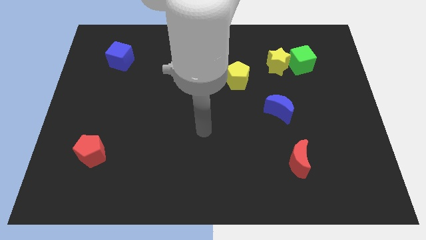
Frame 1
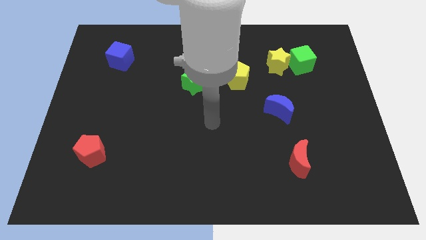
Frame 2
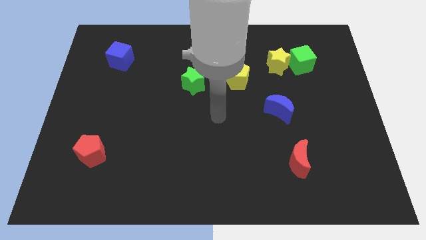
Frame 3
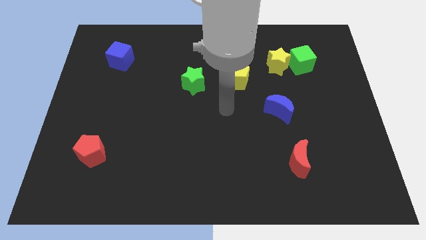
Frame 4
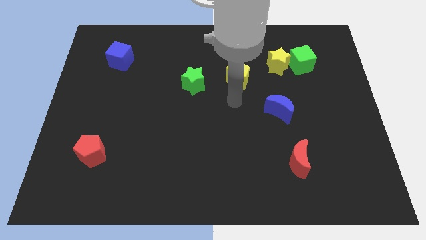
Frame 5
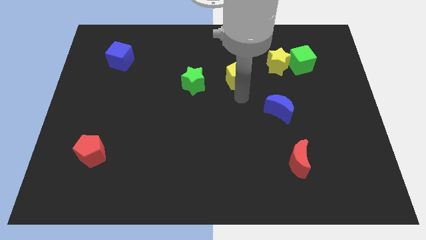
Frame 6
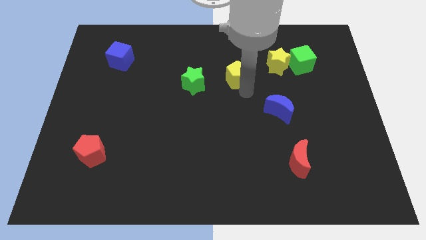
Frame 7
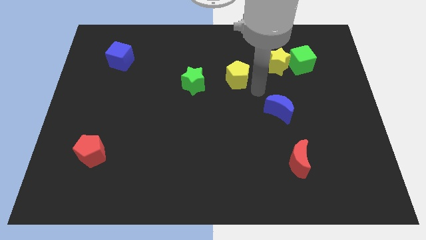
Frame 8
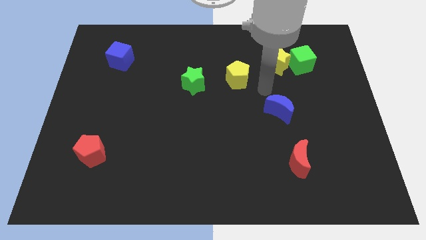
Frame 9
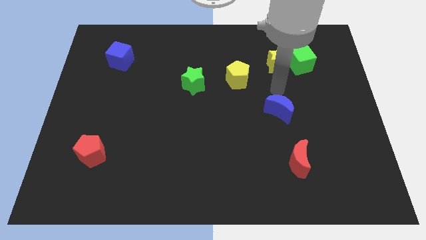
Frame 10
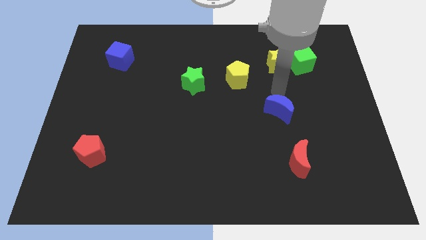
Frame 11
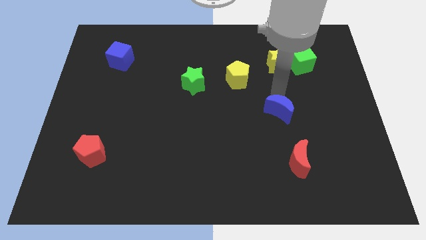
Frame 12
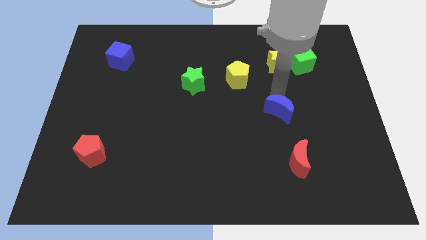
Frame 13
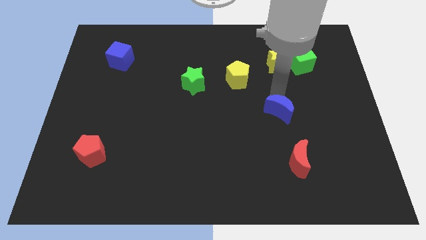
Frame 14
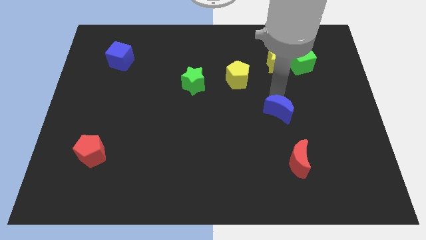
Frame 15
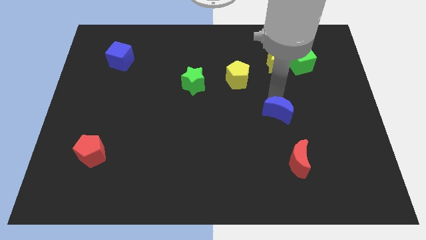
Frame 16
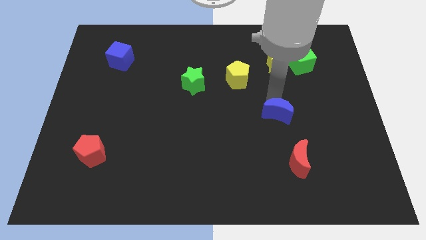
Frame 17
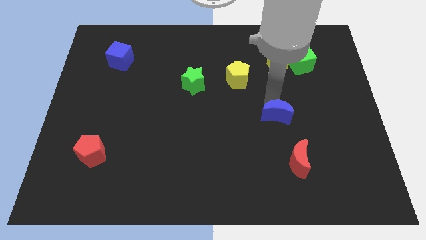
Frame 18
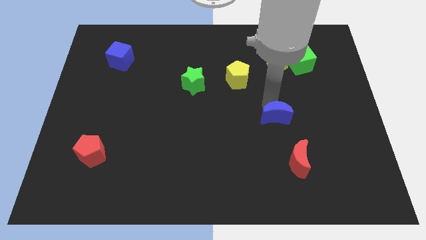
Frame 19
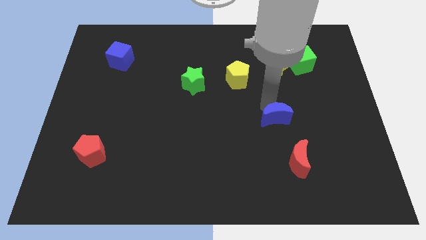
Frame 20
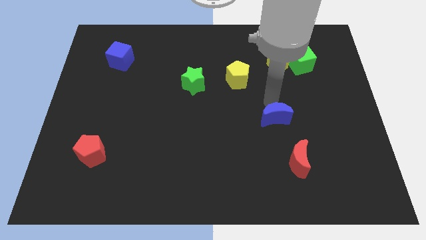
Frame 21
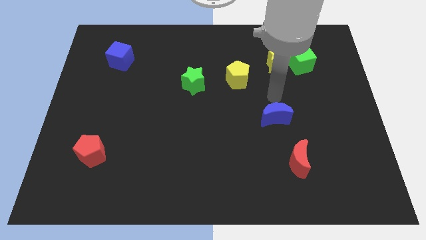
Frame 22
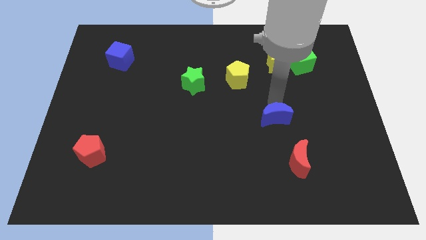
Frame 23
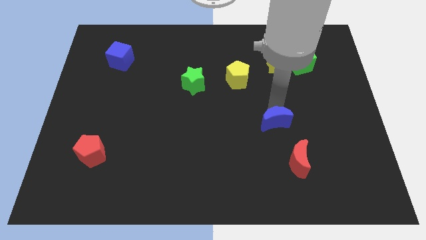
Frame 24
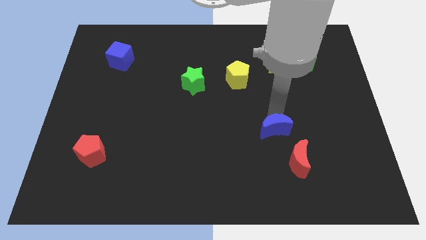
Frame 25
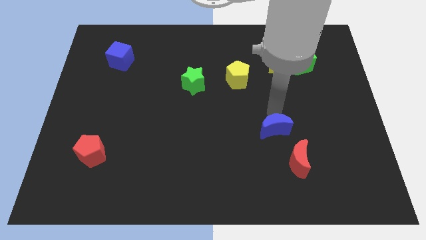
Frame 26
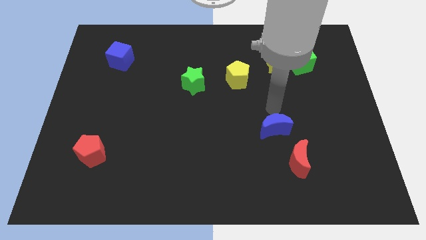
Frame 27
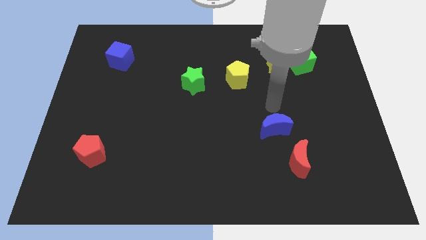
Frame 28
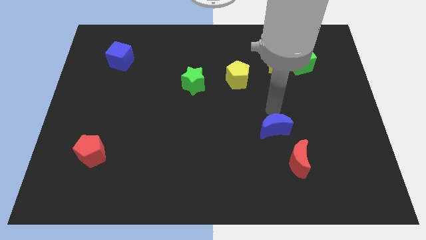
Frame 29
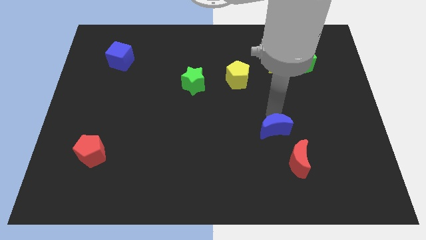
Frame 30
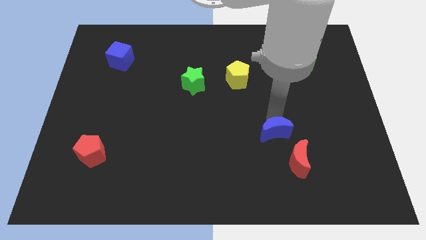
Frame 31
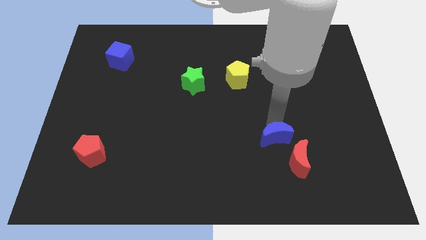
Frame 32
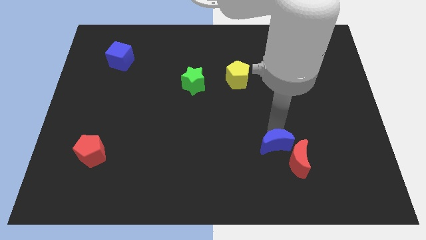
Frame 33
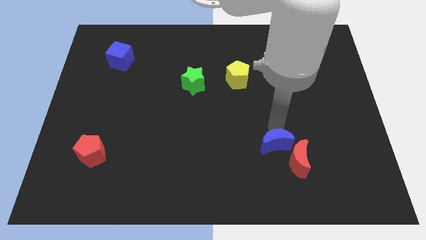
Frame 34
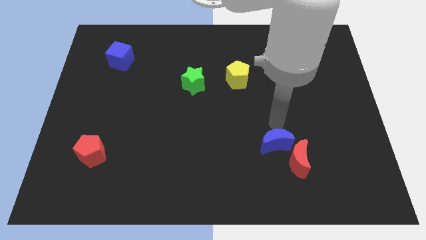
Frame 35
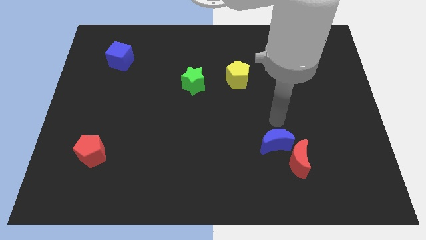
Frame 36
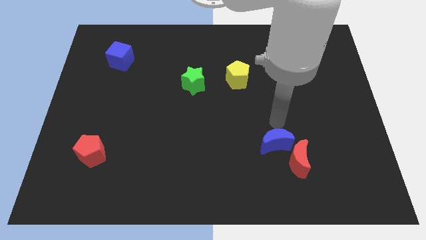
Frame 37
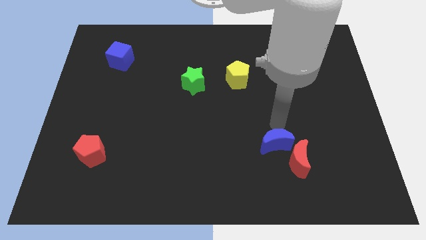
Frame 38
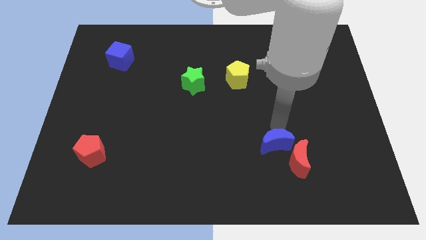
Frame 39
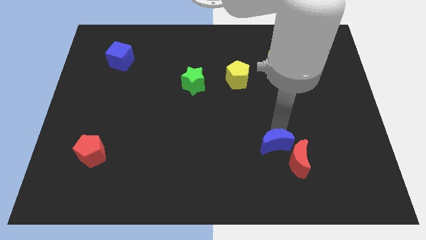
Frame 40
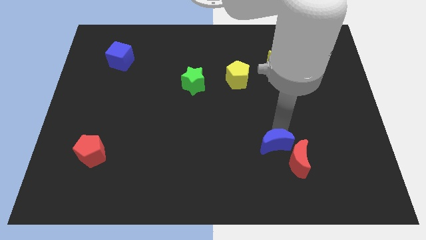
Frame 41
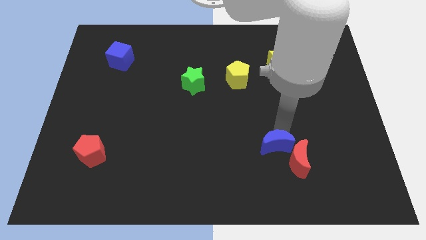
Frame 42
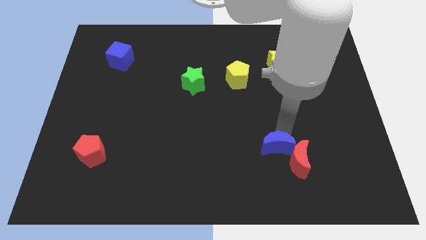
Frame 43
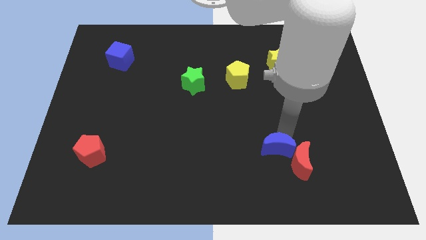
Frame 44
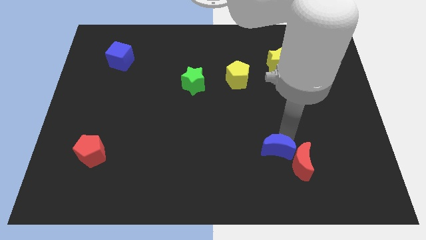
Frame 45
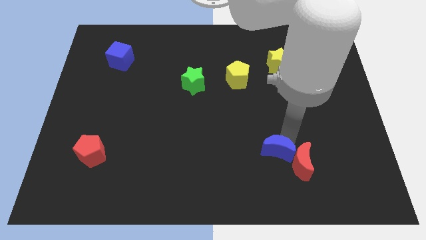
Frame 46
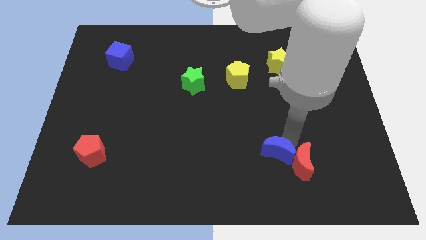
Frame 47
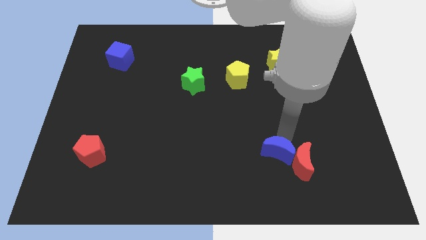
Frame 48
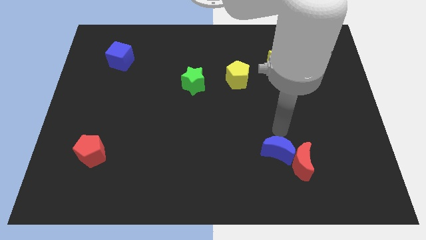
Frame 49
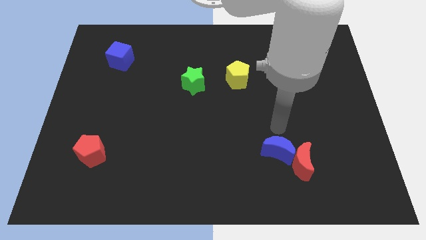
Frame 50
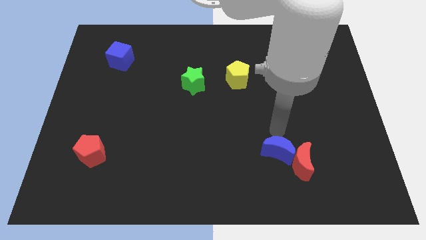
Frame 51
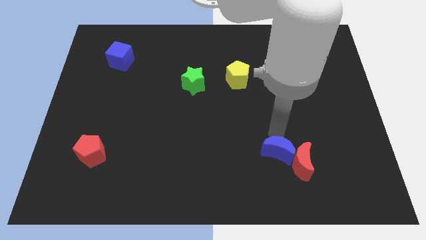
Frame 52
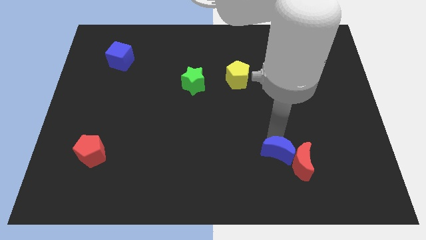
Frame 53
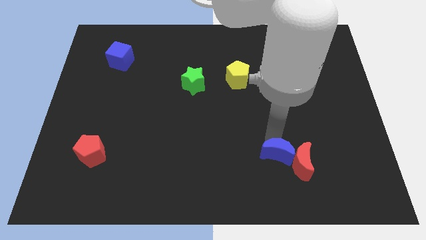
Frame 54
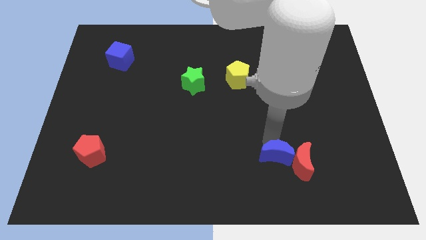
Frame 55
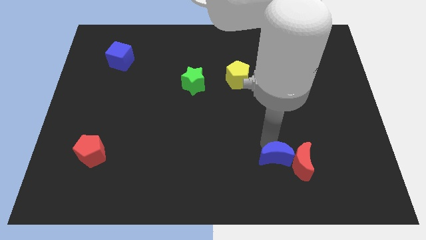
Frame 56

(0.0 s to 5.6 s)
slide the blue moon diagonally down and to the left of the red moon

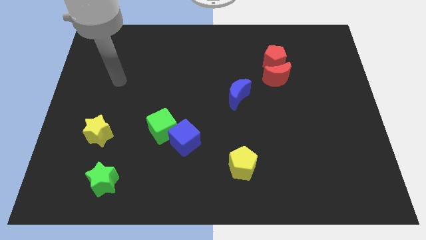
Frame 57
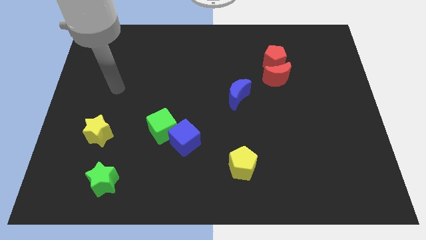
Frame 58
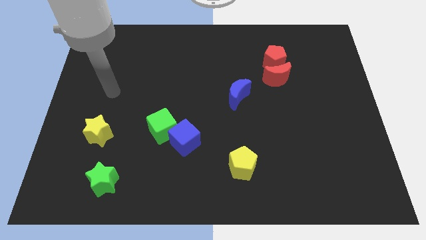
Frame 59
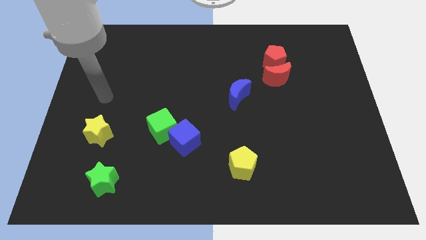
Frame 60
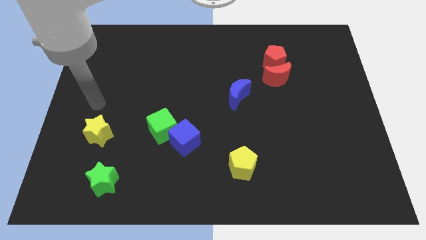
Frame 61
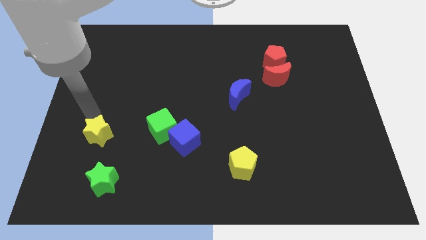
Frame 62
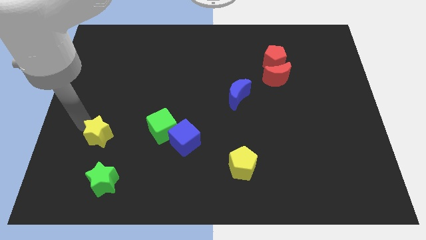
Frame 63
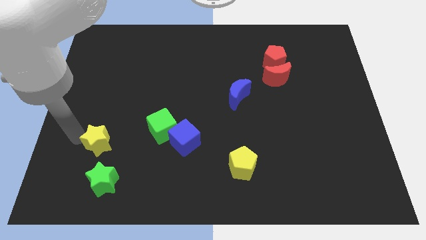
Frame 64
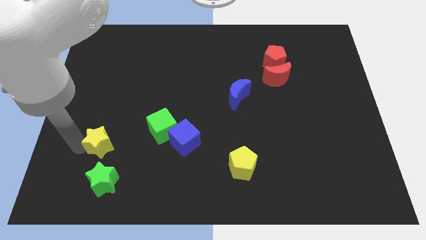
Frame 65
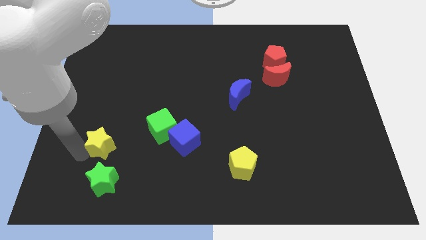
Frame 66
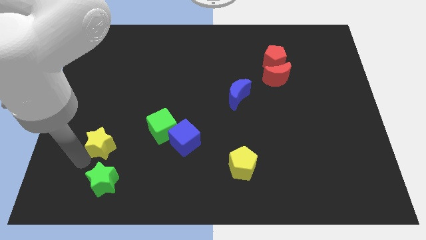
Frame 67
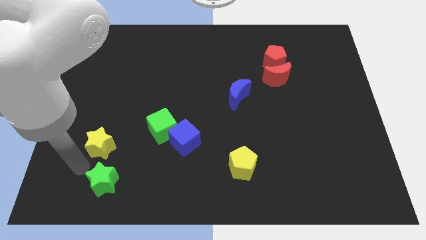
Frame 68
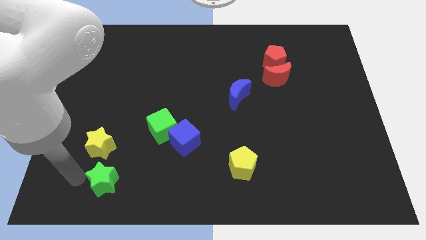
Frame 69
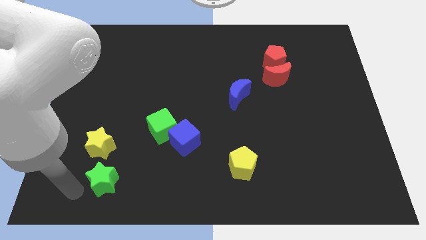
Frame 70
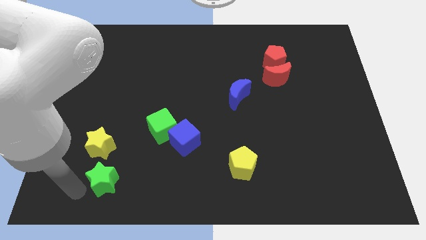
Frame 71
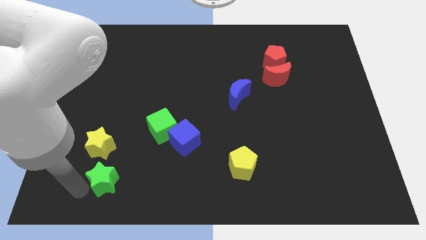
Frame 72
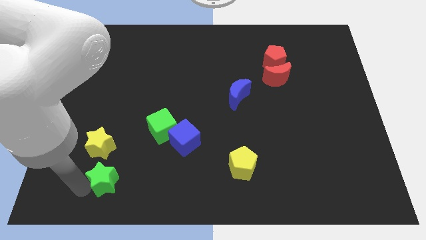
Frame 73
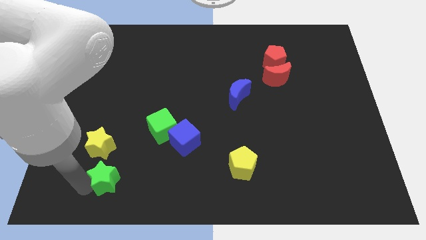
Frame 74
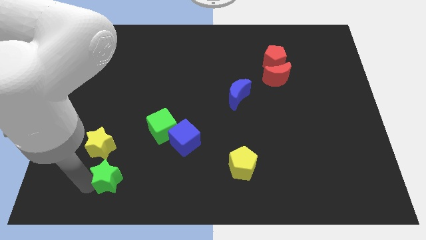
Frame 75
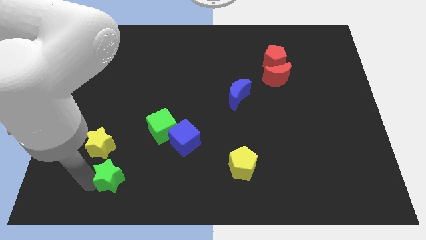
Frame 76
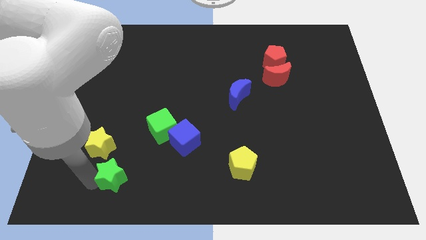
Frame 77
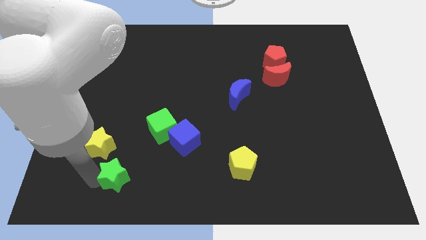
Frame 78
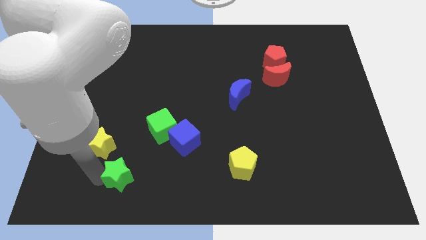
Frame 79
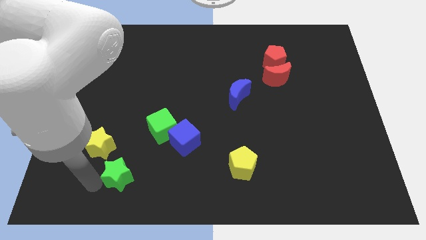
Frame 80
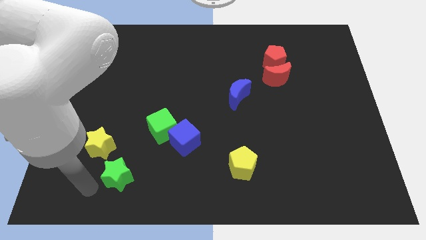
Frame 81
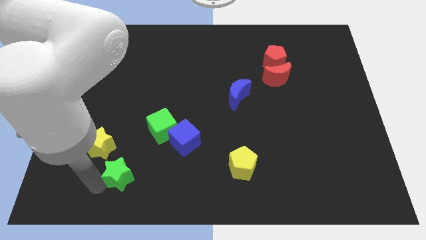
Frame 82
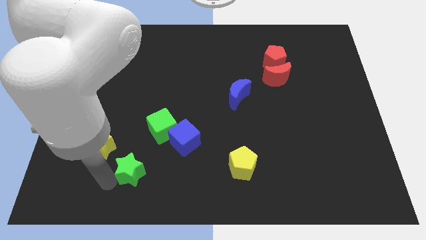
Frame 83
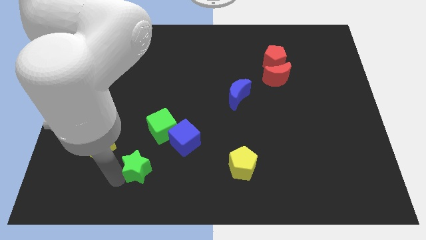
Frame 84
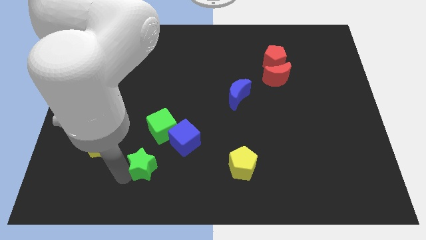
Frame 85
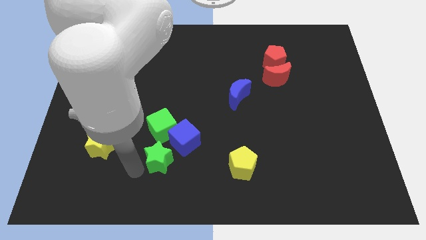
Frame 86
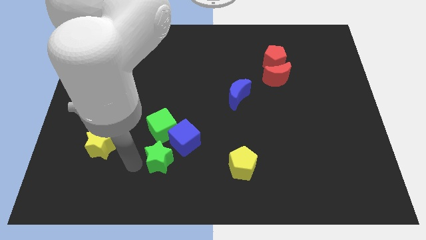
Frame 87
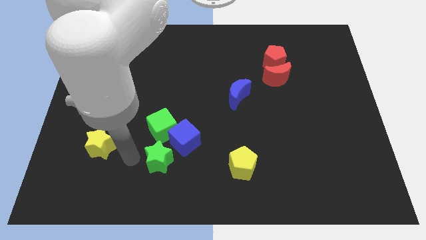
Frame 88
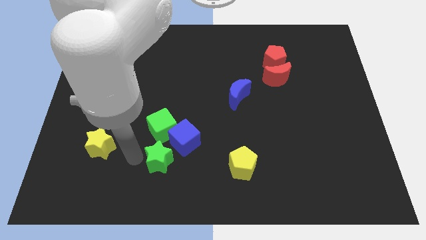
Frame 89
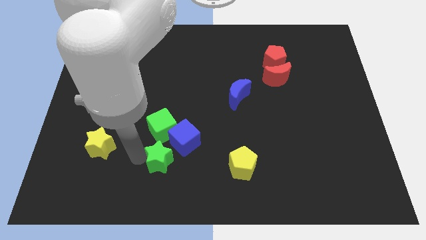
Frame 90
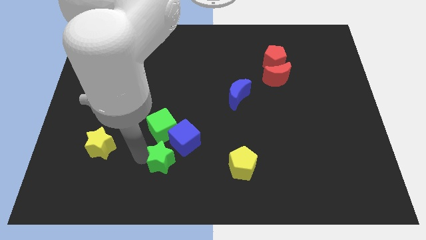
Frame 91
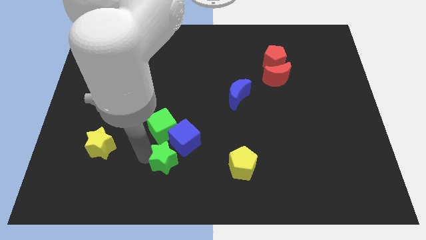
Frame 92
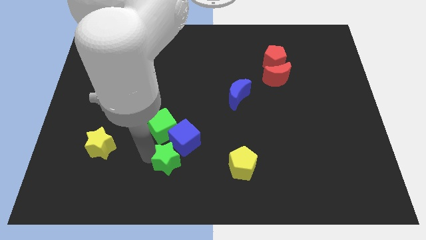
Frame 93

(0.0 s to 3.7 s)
slide the green star just left of the yellow pentagon
